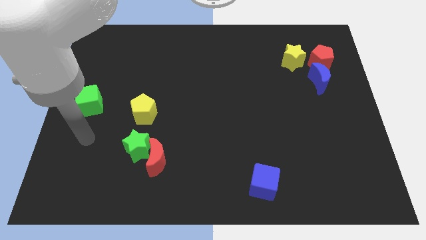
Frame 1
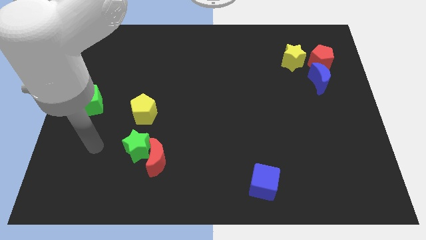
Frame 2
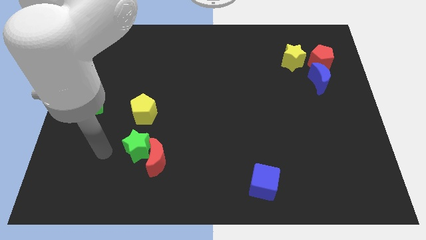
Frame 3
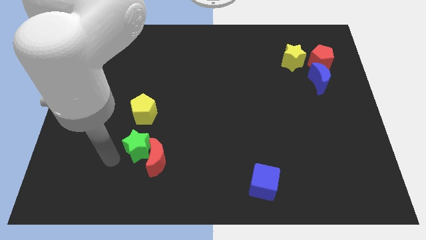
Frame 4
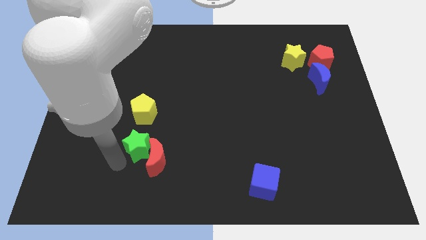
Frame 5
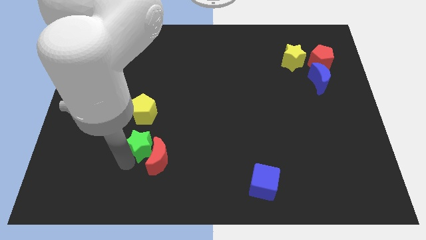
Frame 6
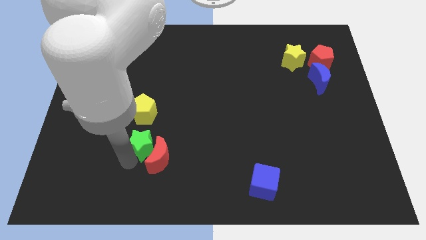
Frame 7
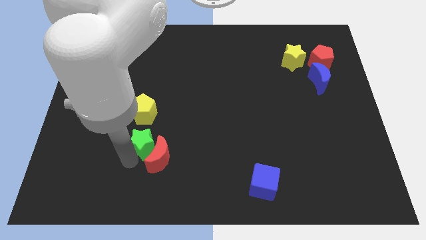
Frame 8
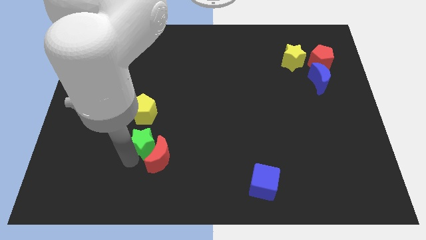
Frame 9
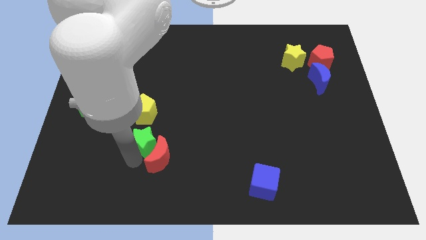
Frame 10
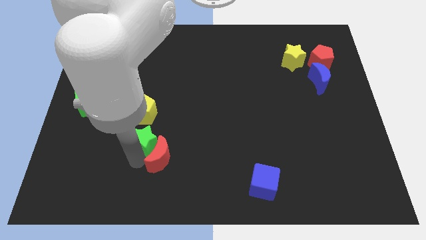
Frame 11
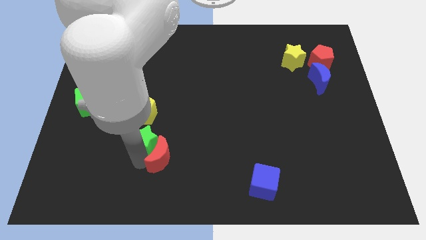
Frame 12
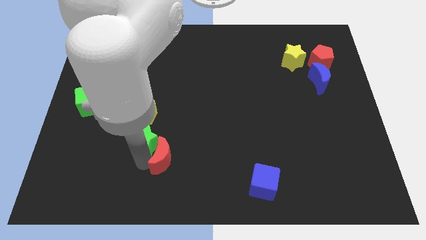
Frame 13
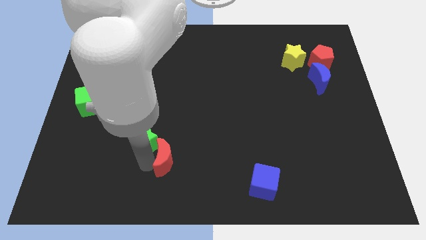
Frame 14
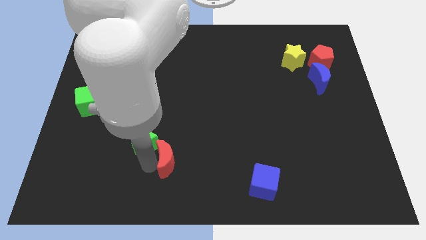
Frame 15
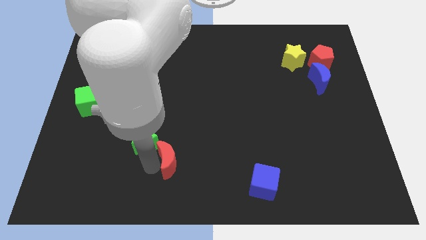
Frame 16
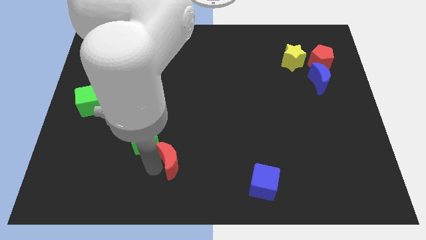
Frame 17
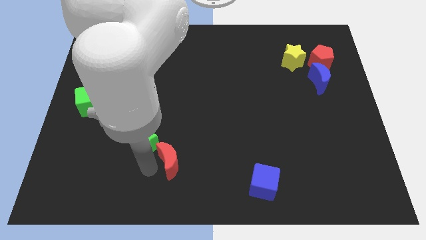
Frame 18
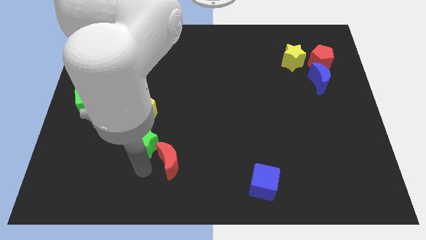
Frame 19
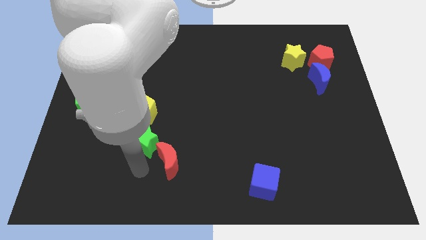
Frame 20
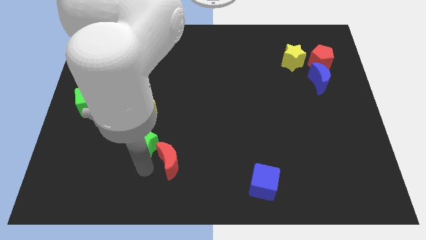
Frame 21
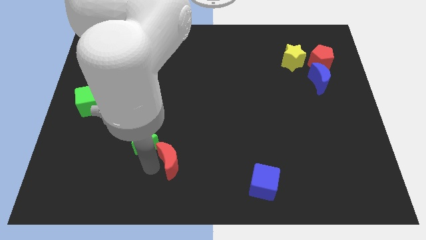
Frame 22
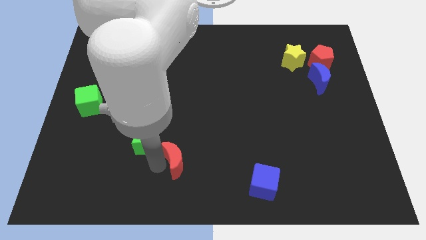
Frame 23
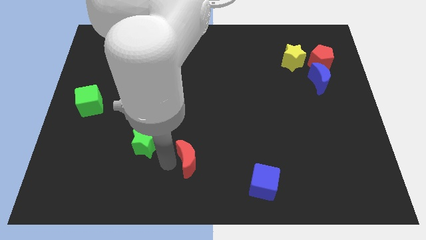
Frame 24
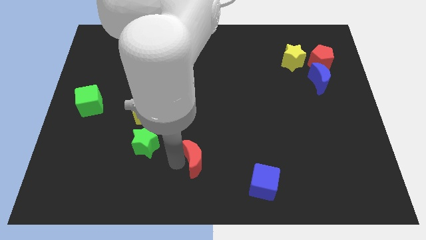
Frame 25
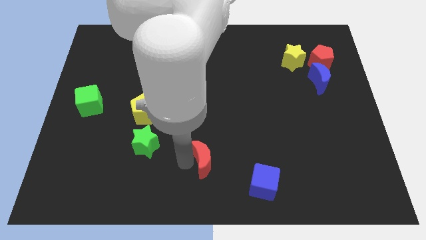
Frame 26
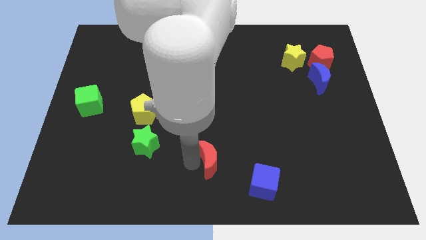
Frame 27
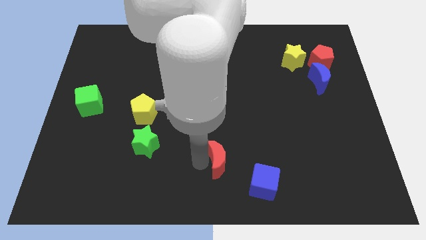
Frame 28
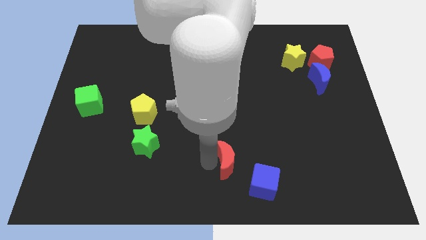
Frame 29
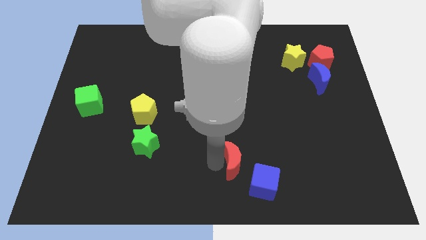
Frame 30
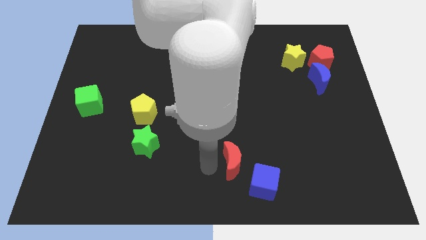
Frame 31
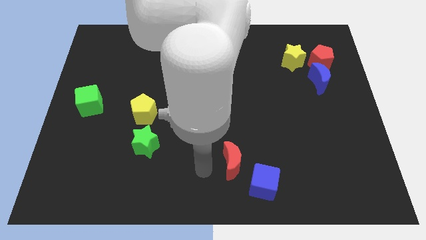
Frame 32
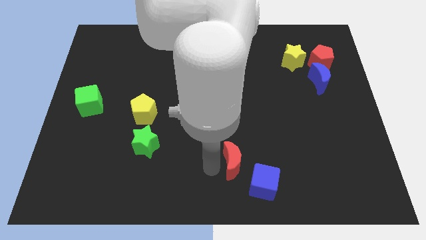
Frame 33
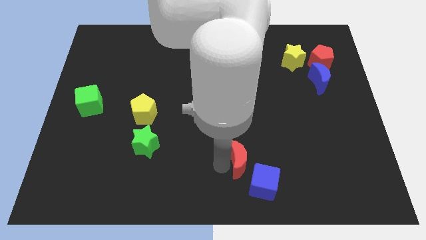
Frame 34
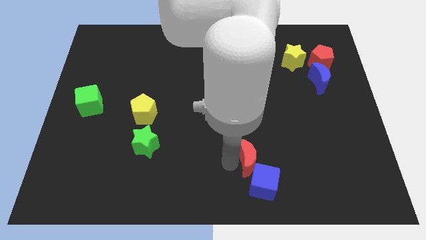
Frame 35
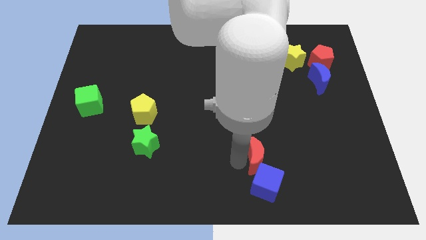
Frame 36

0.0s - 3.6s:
slide the red moon right

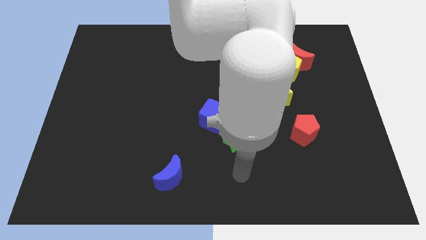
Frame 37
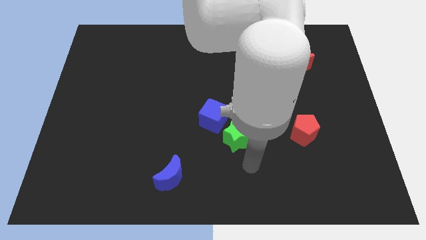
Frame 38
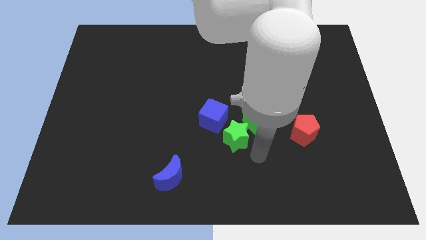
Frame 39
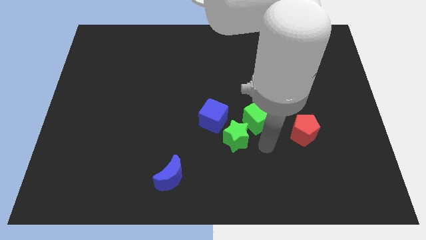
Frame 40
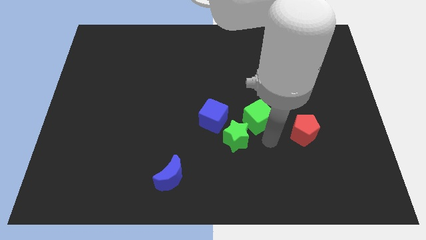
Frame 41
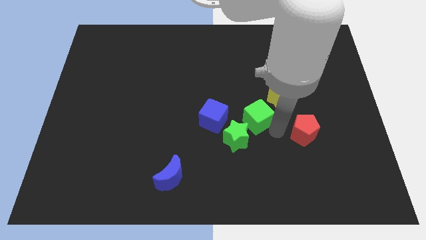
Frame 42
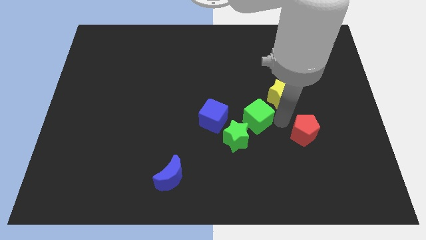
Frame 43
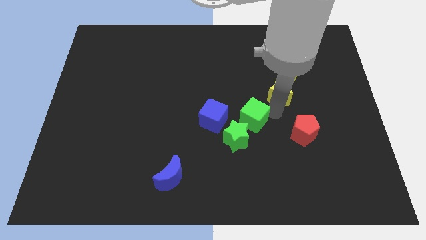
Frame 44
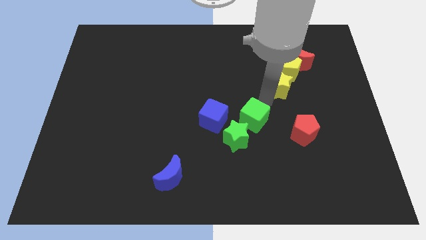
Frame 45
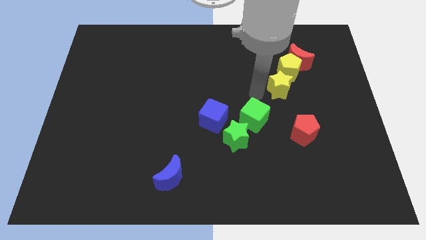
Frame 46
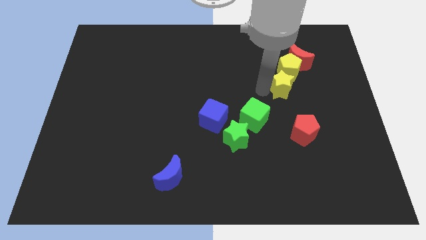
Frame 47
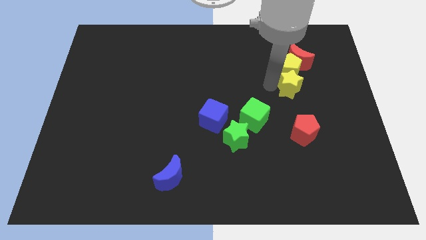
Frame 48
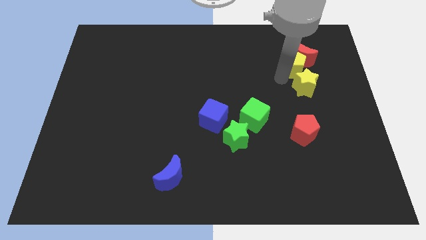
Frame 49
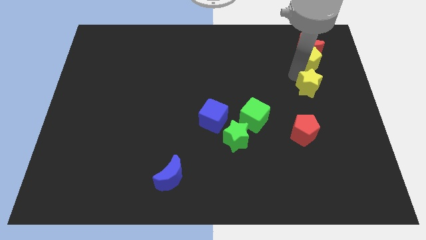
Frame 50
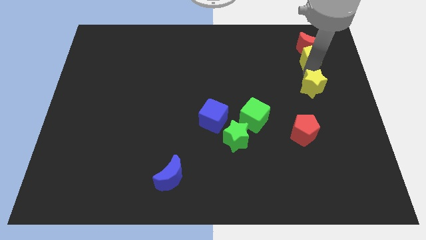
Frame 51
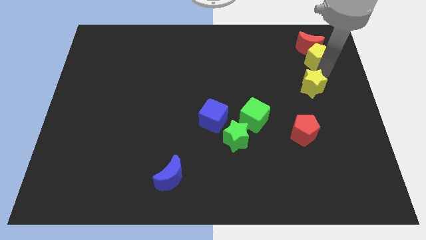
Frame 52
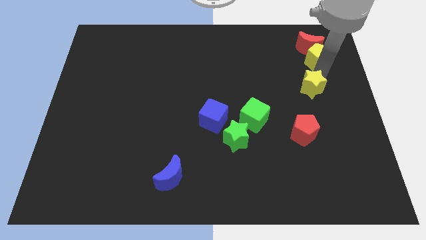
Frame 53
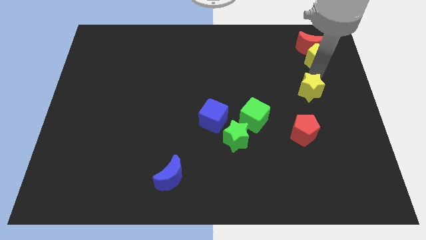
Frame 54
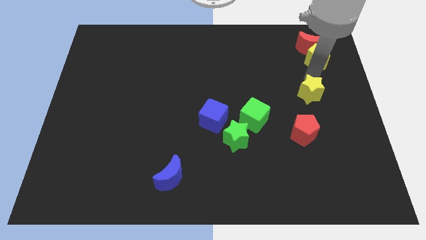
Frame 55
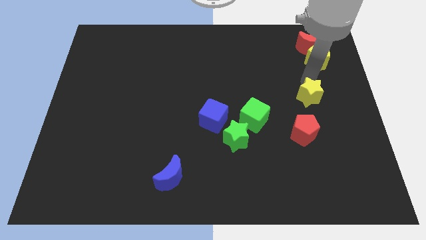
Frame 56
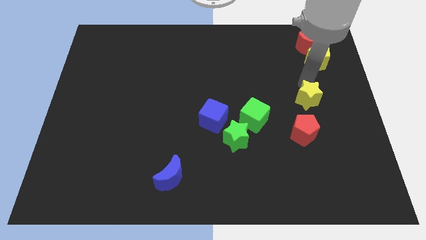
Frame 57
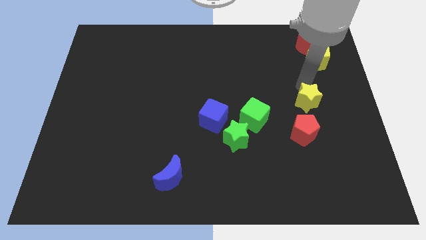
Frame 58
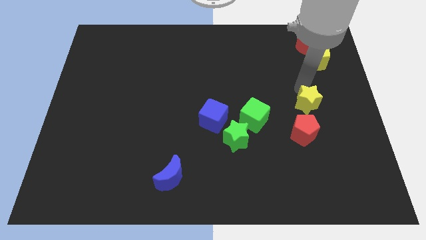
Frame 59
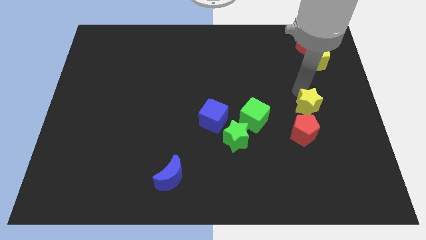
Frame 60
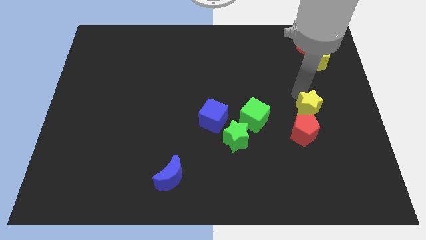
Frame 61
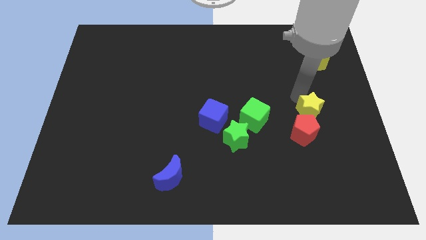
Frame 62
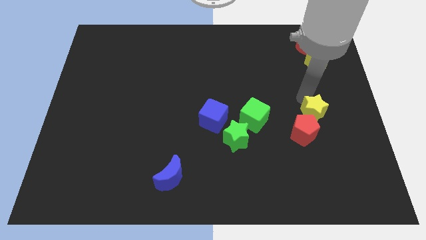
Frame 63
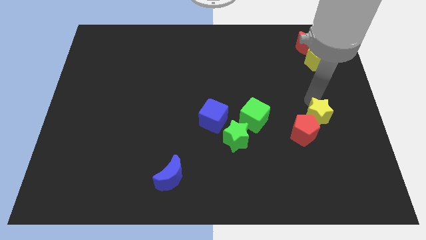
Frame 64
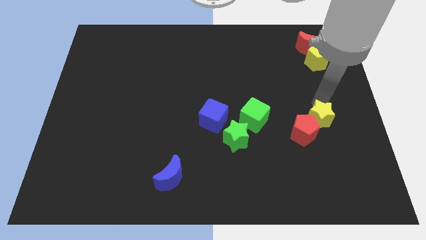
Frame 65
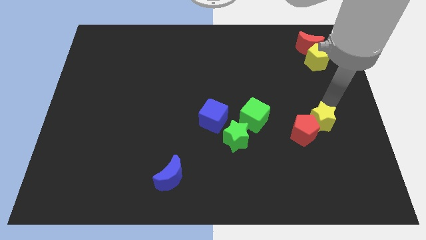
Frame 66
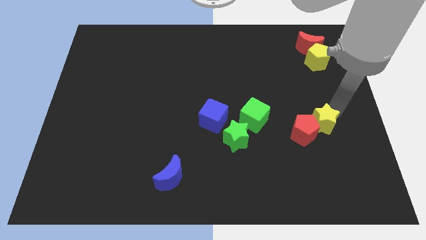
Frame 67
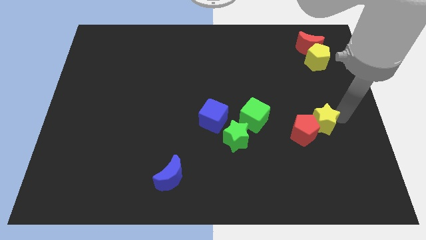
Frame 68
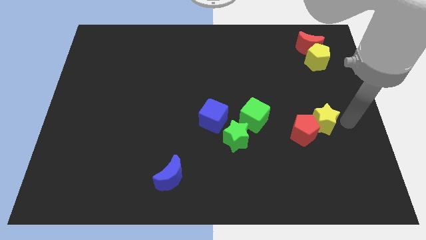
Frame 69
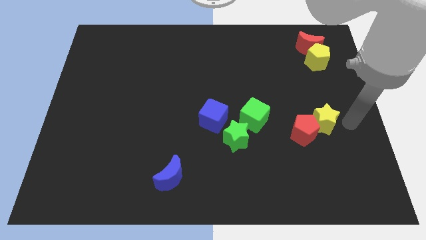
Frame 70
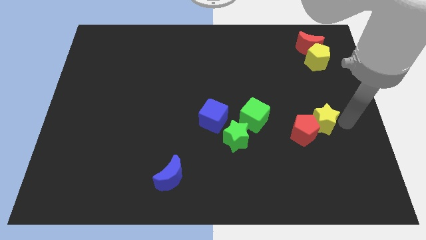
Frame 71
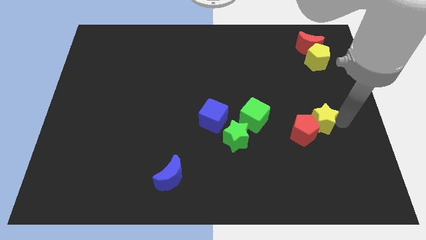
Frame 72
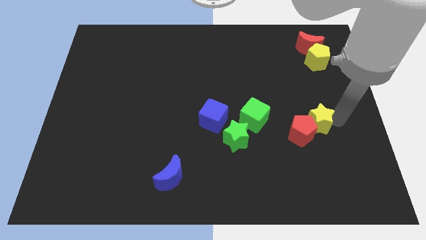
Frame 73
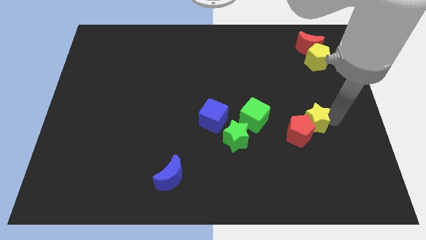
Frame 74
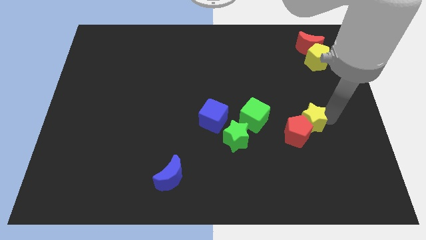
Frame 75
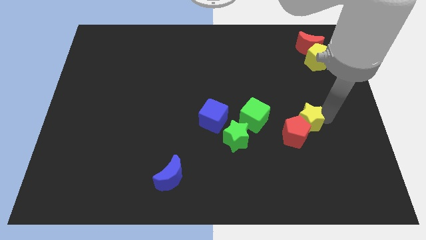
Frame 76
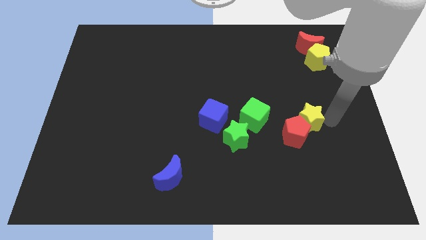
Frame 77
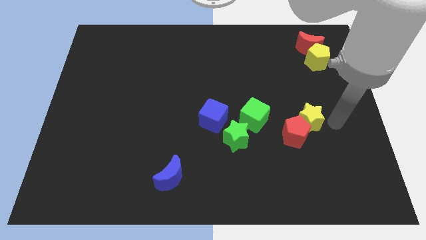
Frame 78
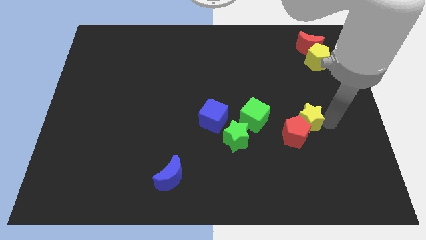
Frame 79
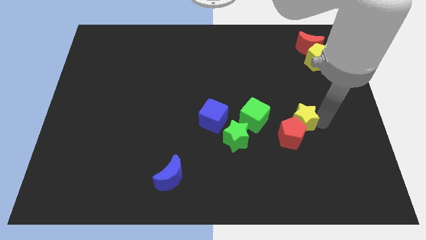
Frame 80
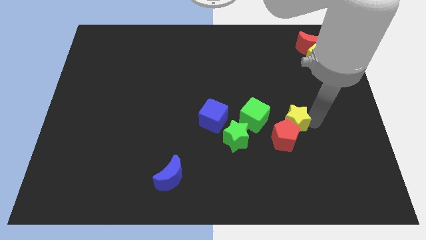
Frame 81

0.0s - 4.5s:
slide the yellow star a bit downwards
